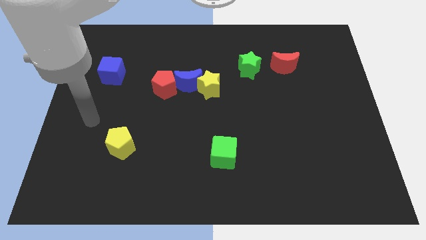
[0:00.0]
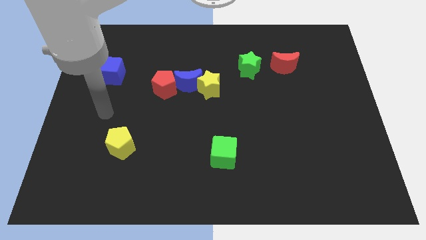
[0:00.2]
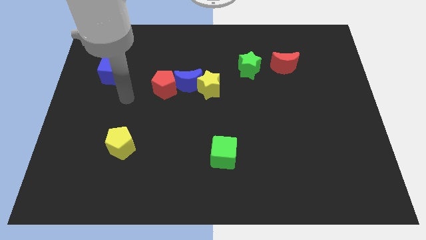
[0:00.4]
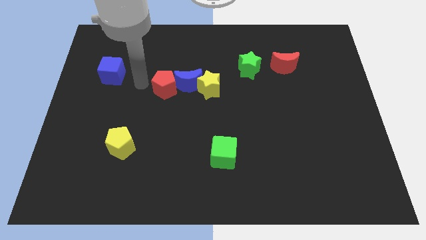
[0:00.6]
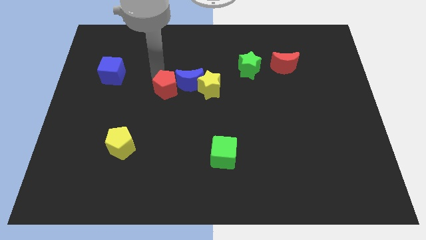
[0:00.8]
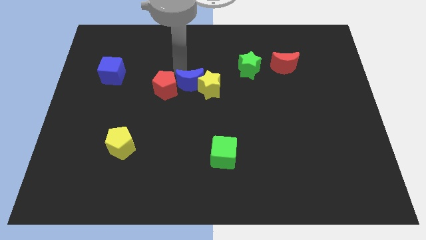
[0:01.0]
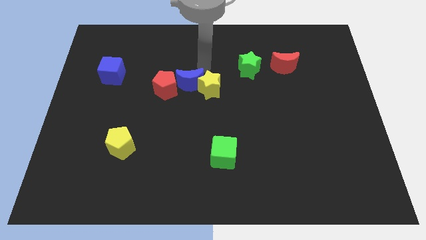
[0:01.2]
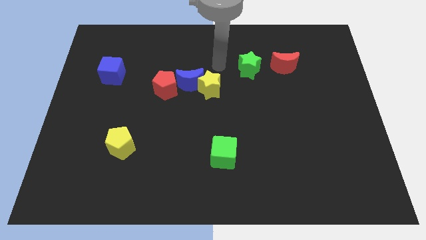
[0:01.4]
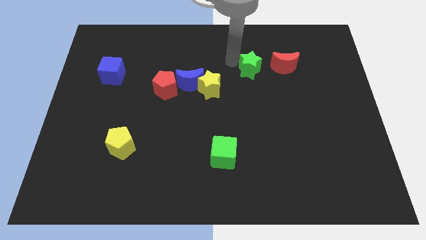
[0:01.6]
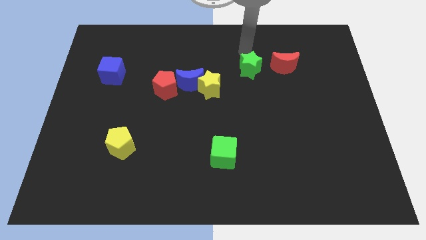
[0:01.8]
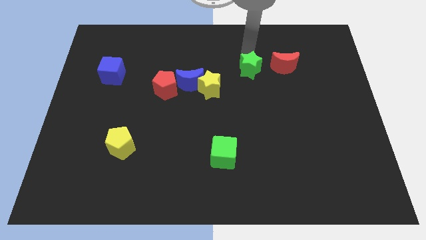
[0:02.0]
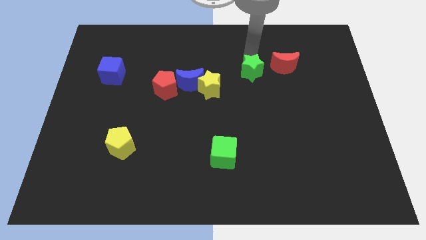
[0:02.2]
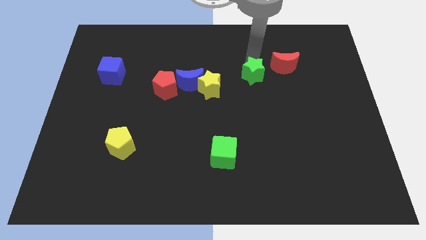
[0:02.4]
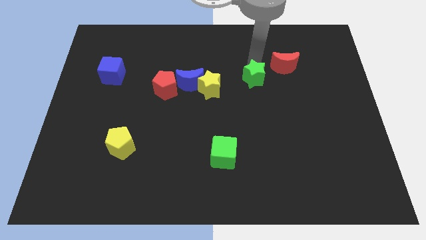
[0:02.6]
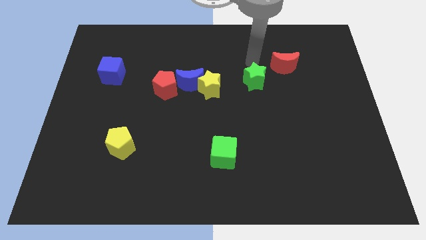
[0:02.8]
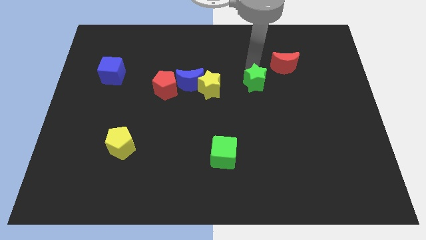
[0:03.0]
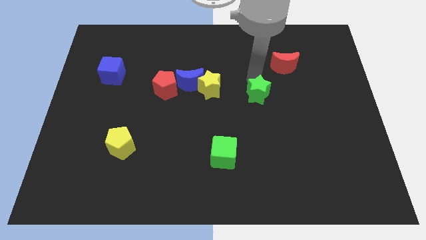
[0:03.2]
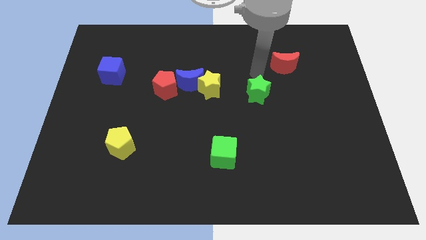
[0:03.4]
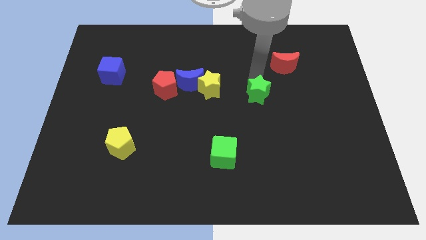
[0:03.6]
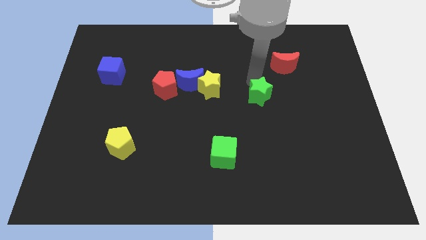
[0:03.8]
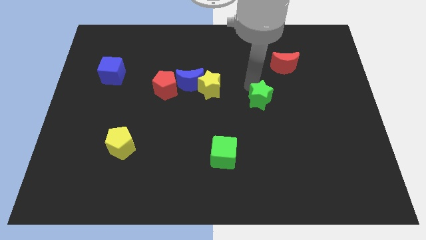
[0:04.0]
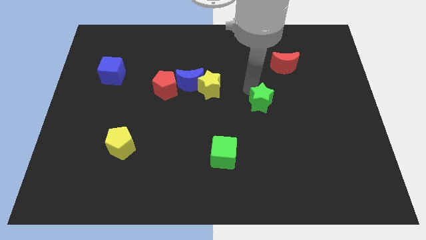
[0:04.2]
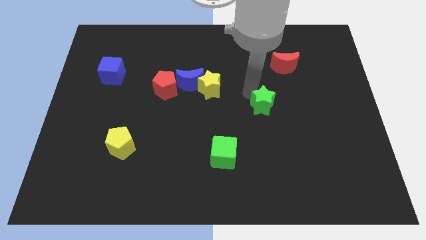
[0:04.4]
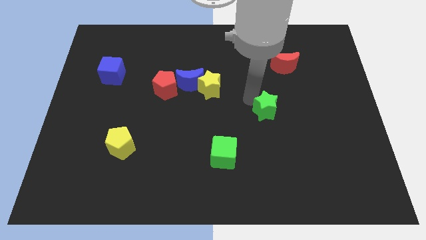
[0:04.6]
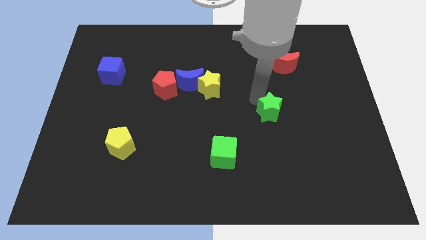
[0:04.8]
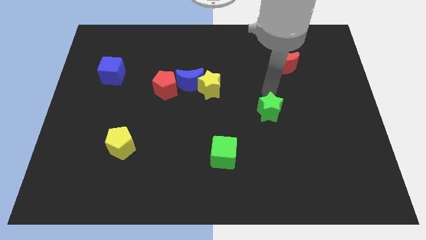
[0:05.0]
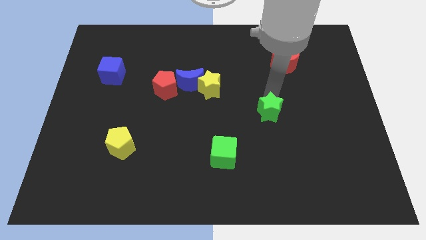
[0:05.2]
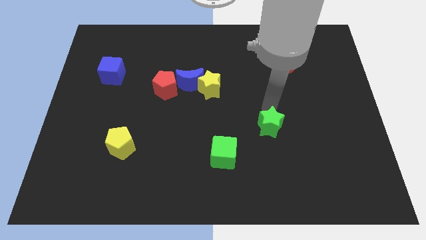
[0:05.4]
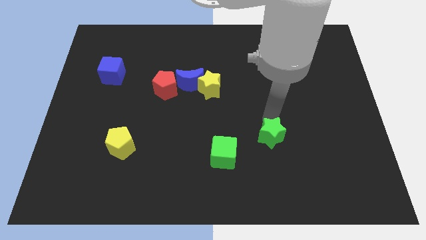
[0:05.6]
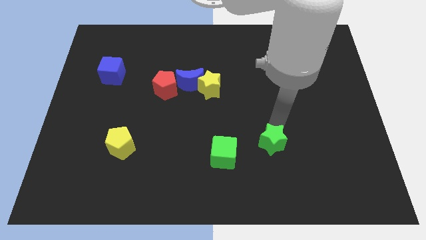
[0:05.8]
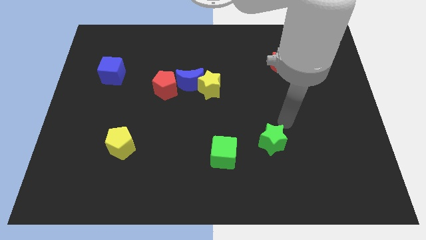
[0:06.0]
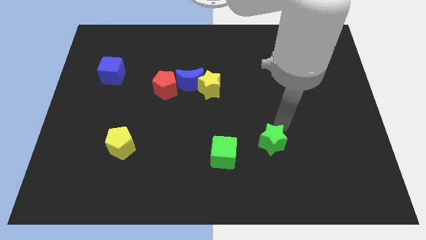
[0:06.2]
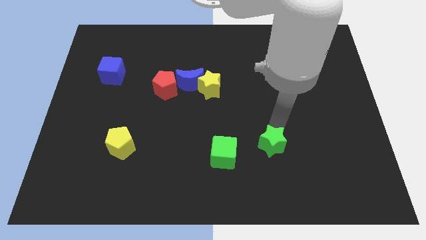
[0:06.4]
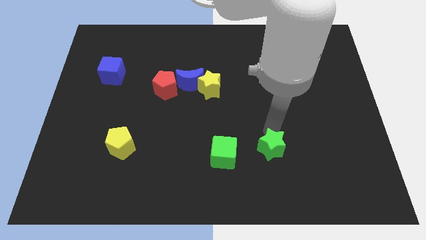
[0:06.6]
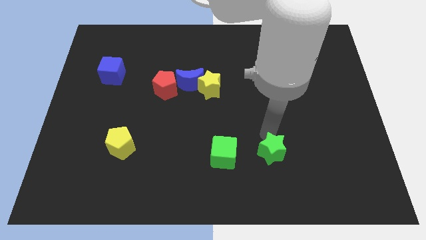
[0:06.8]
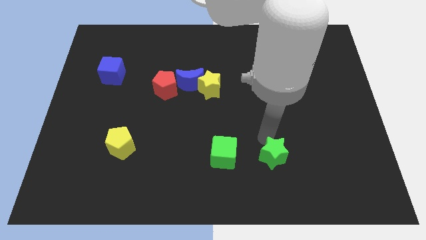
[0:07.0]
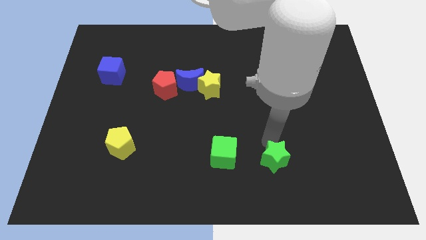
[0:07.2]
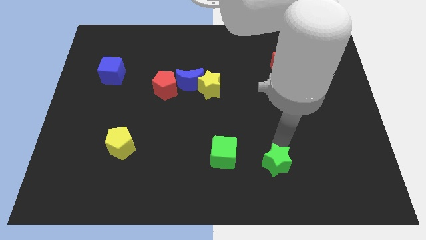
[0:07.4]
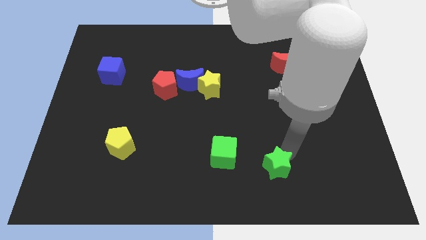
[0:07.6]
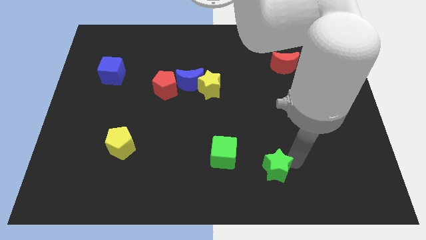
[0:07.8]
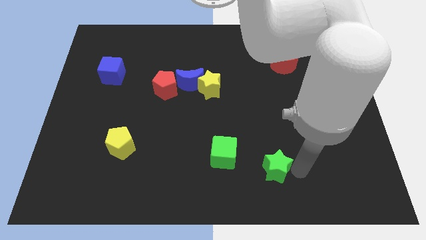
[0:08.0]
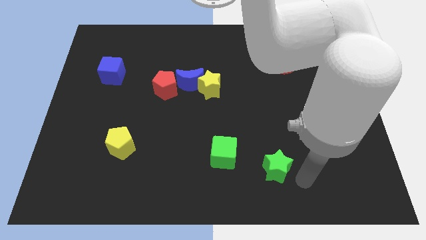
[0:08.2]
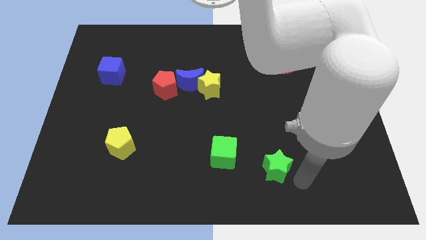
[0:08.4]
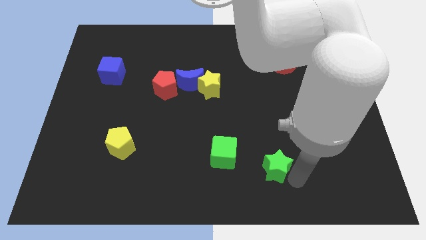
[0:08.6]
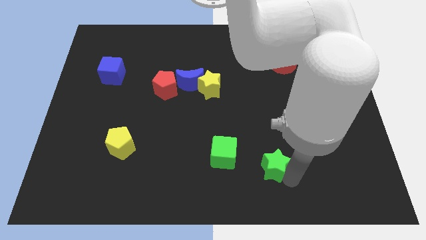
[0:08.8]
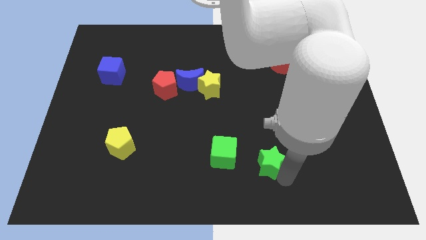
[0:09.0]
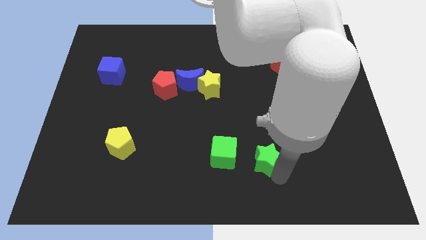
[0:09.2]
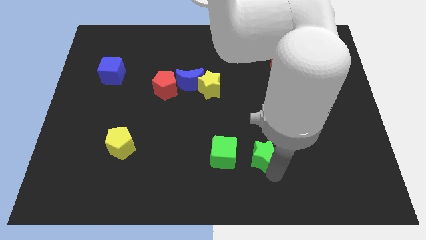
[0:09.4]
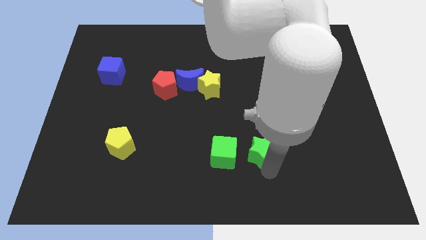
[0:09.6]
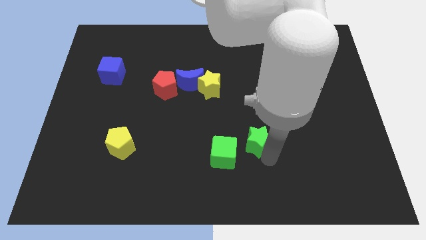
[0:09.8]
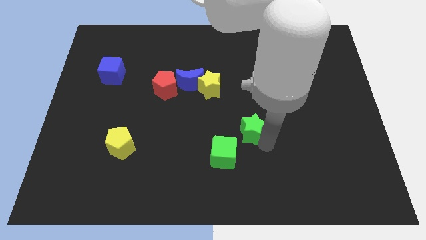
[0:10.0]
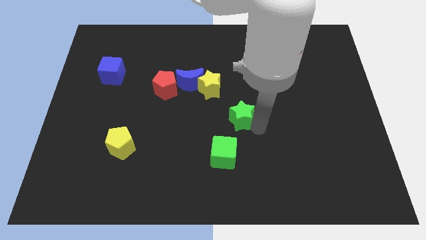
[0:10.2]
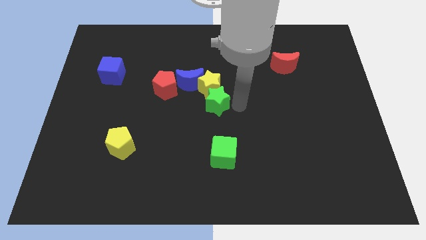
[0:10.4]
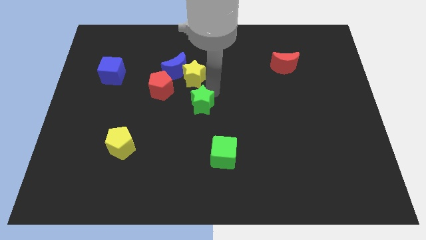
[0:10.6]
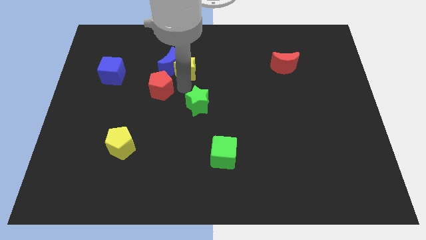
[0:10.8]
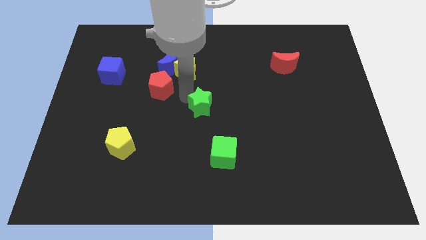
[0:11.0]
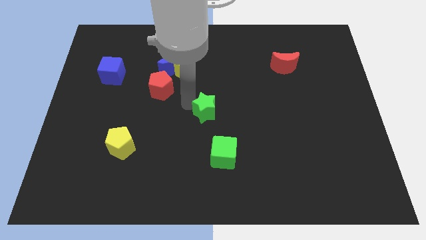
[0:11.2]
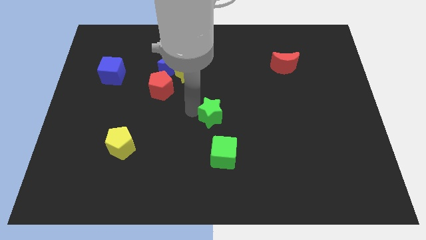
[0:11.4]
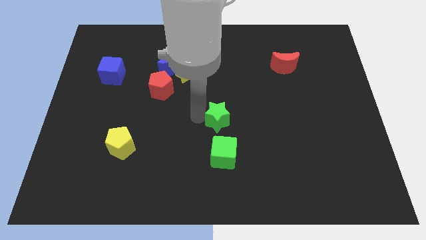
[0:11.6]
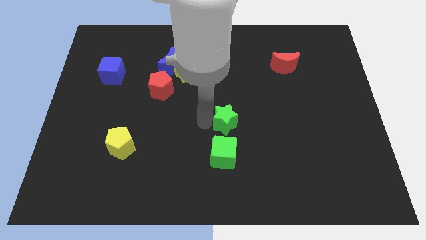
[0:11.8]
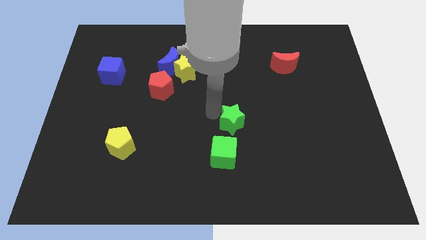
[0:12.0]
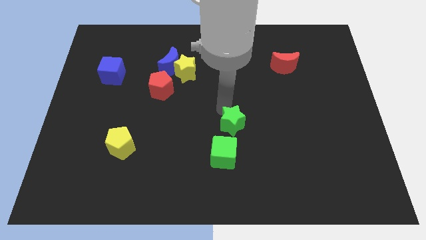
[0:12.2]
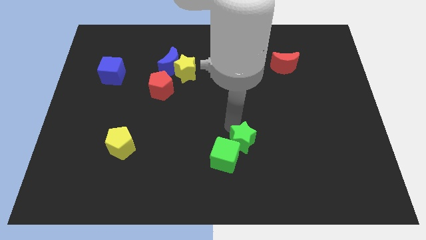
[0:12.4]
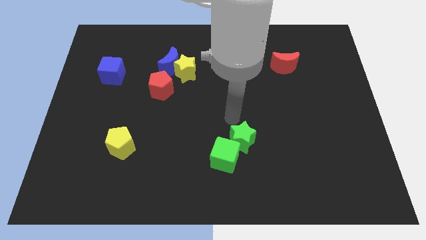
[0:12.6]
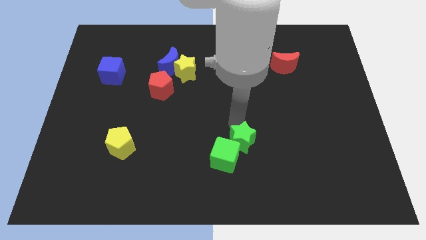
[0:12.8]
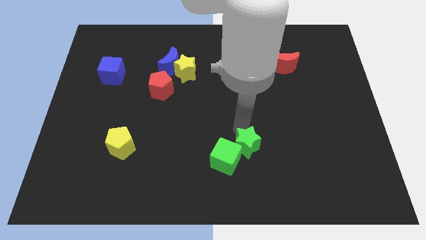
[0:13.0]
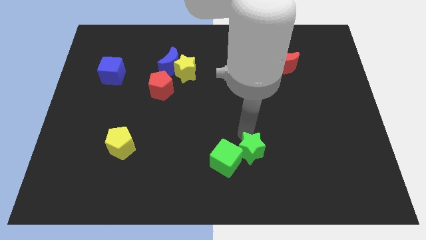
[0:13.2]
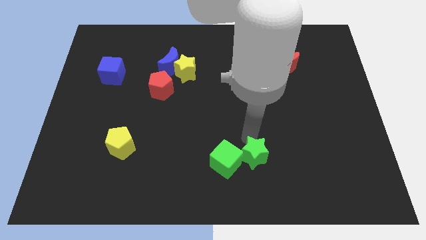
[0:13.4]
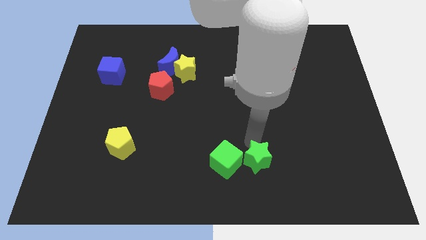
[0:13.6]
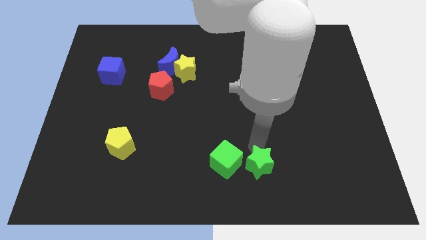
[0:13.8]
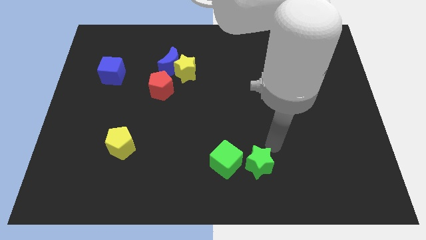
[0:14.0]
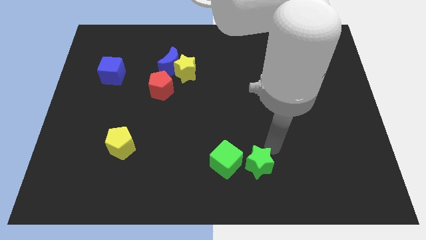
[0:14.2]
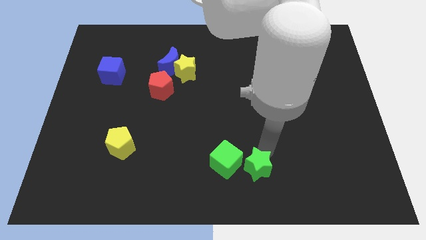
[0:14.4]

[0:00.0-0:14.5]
move the green star to the bottom side
